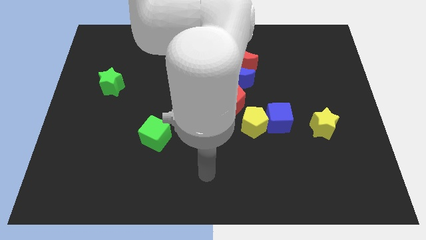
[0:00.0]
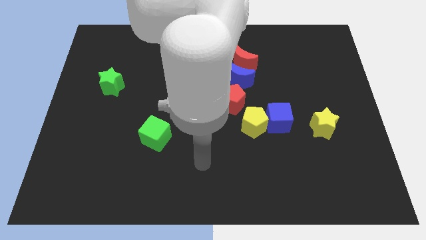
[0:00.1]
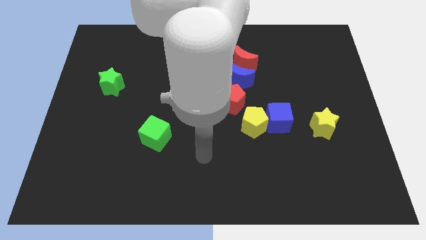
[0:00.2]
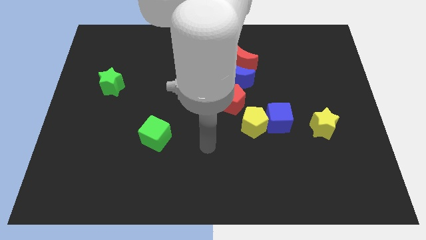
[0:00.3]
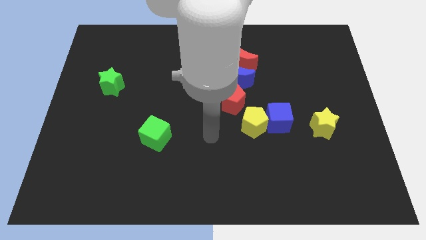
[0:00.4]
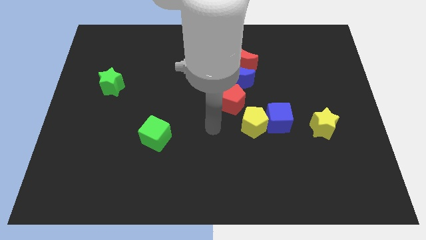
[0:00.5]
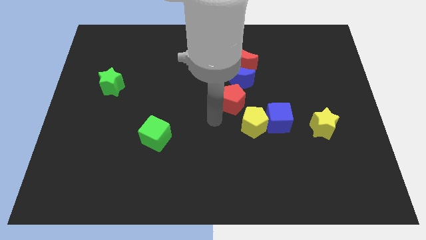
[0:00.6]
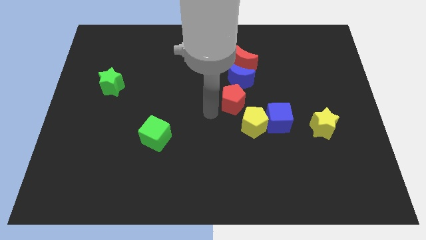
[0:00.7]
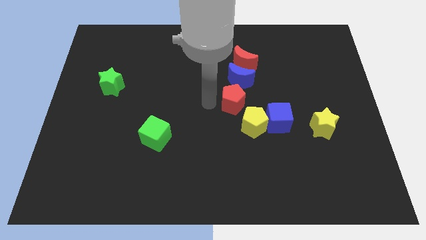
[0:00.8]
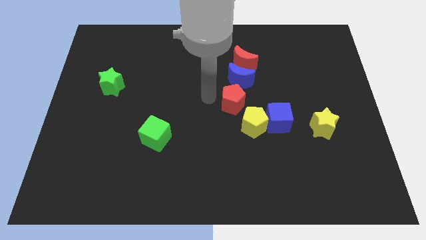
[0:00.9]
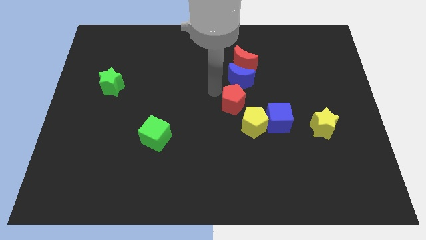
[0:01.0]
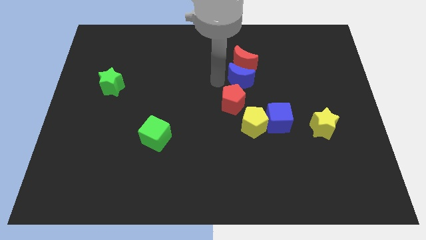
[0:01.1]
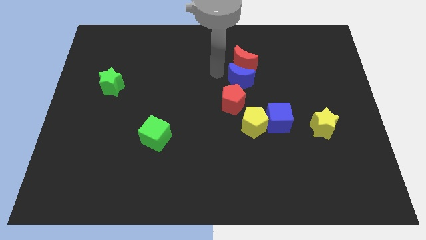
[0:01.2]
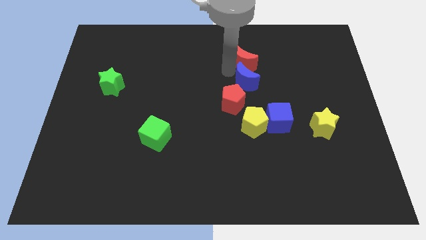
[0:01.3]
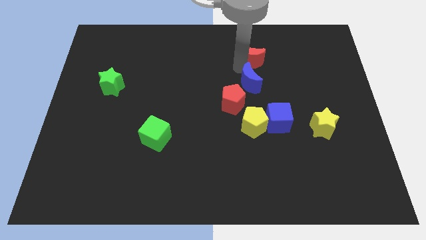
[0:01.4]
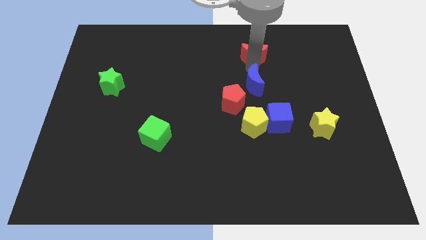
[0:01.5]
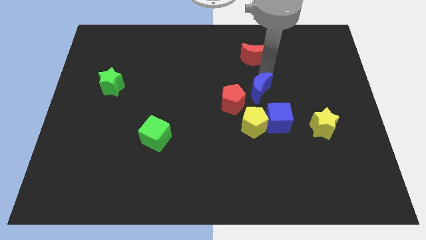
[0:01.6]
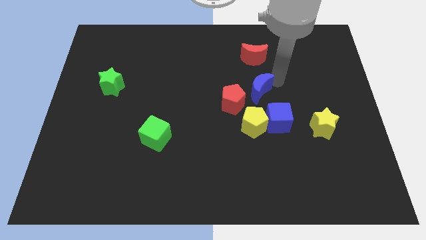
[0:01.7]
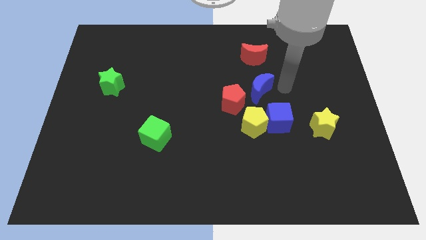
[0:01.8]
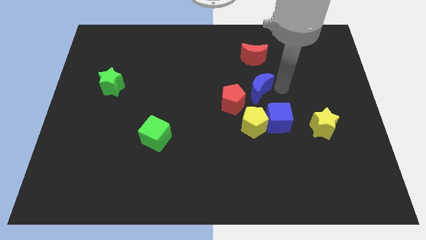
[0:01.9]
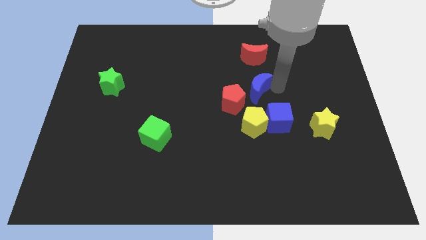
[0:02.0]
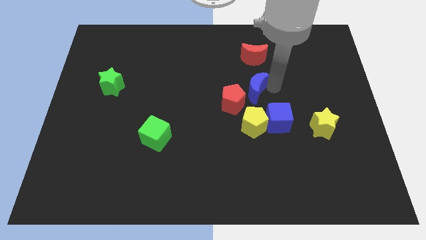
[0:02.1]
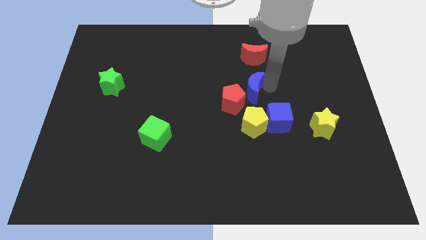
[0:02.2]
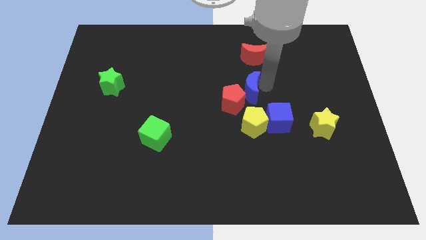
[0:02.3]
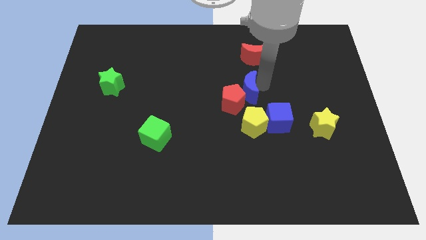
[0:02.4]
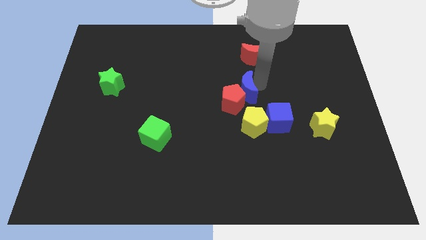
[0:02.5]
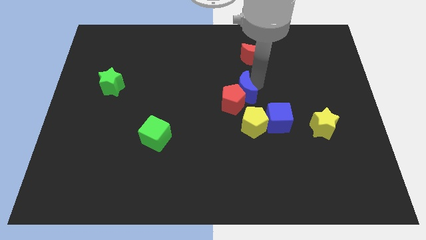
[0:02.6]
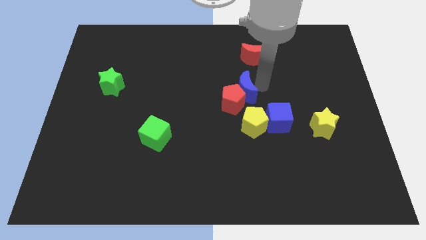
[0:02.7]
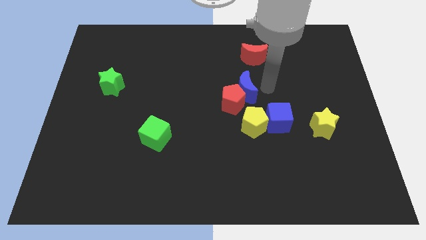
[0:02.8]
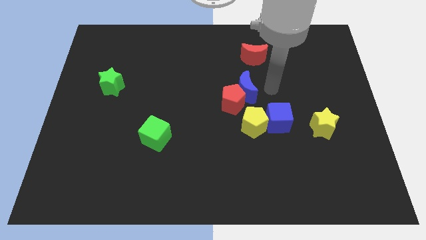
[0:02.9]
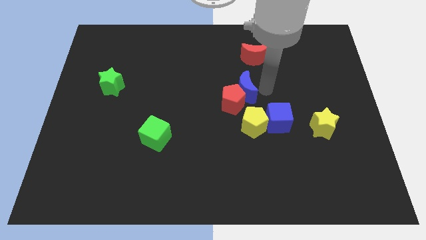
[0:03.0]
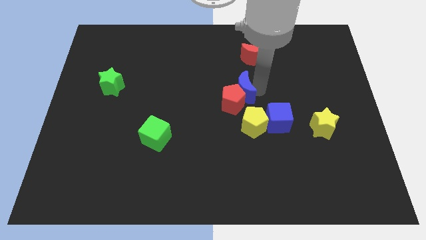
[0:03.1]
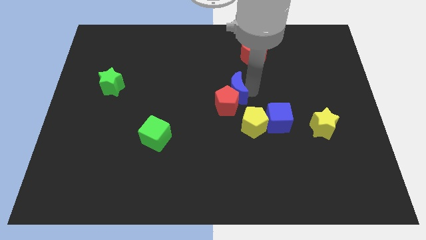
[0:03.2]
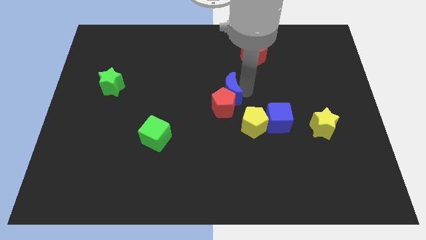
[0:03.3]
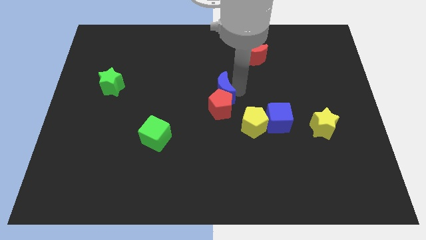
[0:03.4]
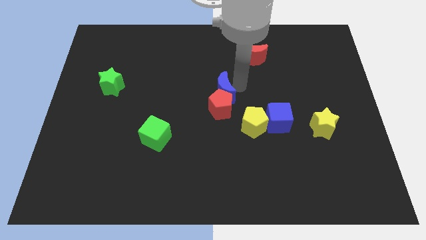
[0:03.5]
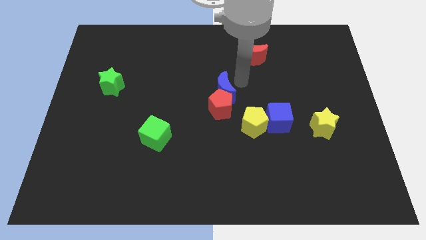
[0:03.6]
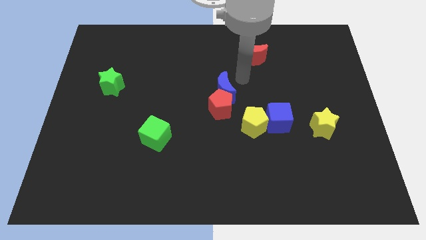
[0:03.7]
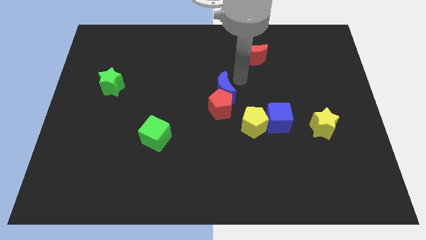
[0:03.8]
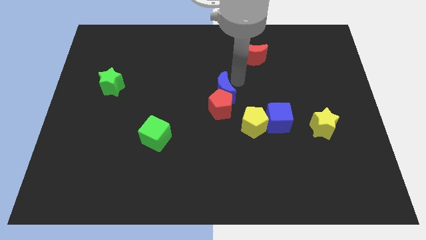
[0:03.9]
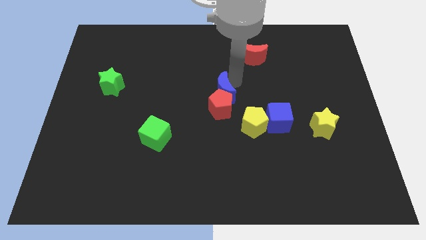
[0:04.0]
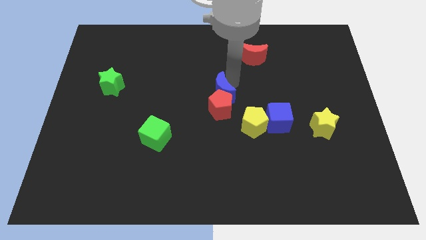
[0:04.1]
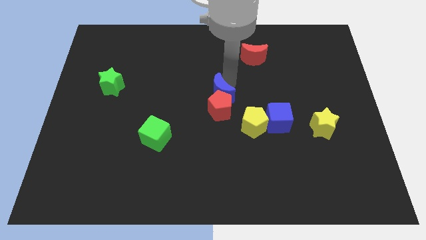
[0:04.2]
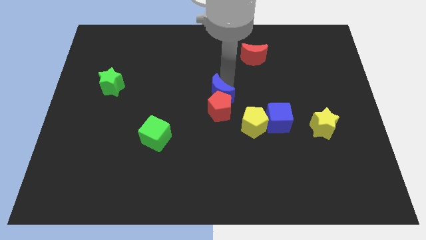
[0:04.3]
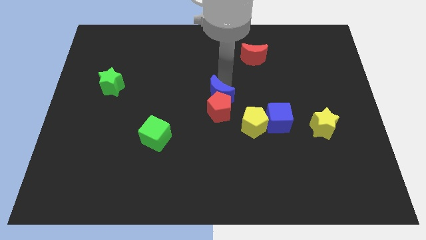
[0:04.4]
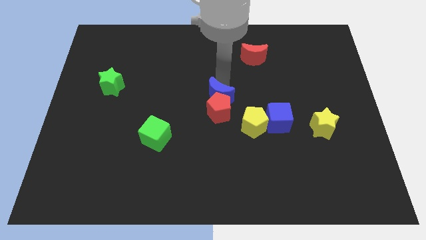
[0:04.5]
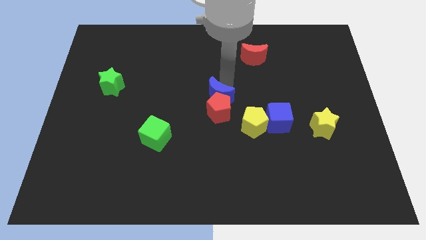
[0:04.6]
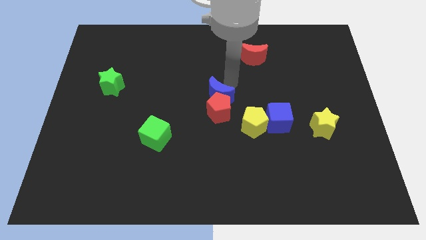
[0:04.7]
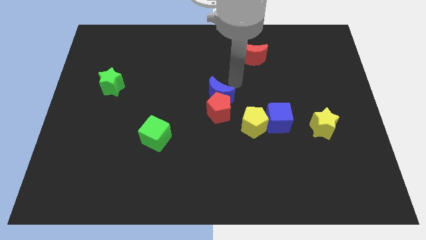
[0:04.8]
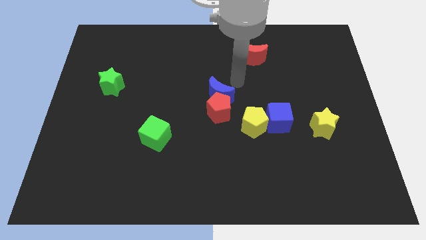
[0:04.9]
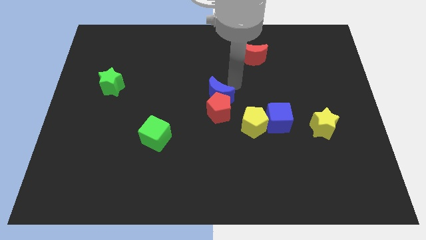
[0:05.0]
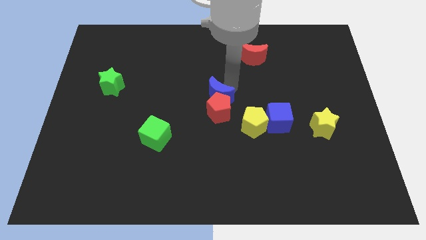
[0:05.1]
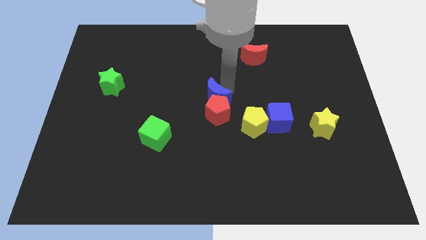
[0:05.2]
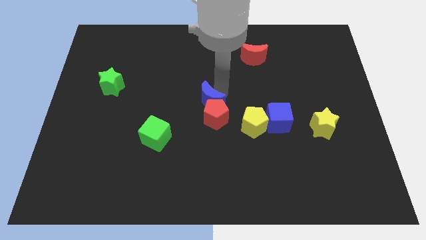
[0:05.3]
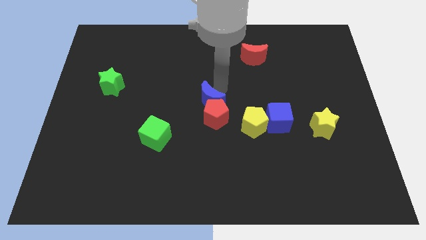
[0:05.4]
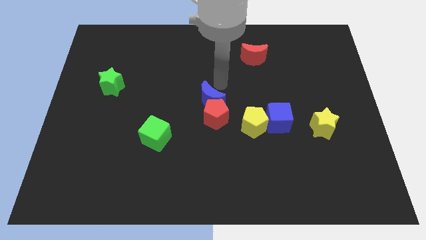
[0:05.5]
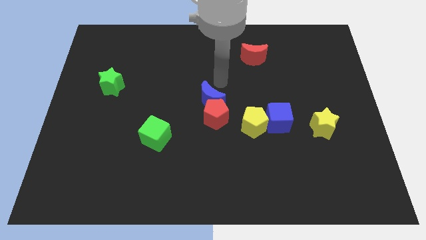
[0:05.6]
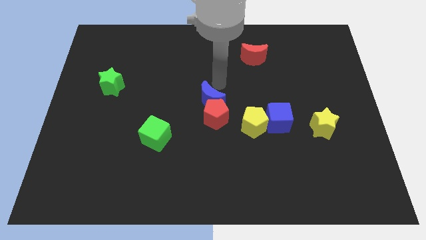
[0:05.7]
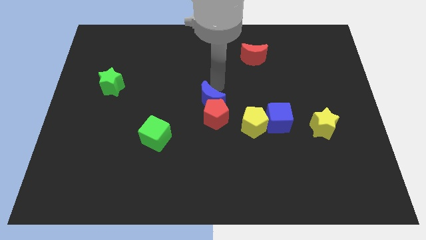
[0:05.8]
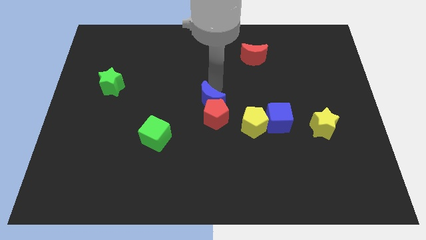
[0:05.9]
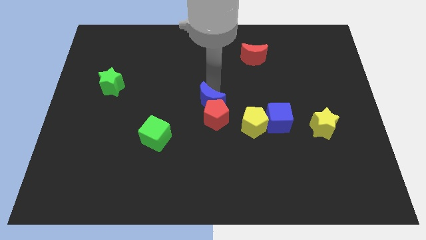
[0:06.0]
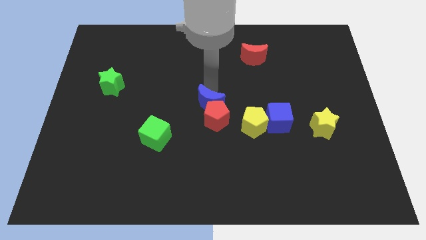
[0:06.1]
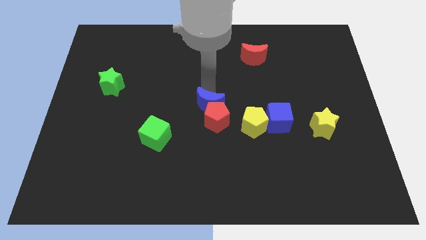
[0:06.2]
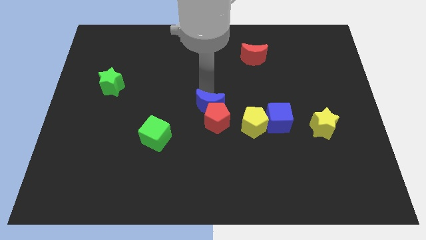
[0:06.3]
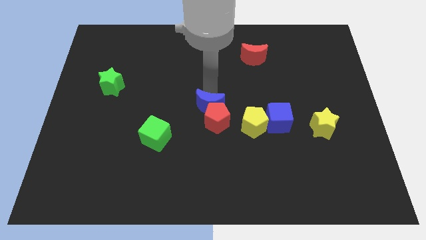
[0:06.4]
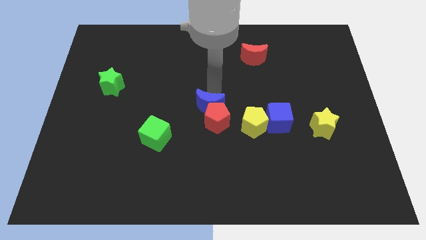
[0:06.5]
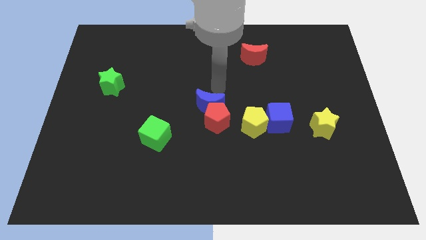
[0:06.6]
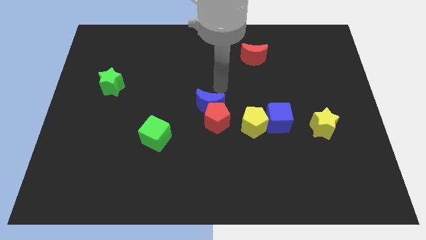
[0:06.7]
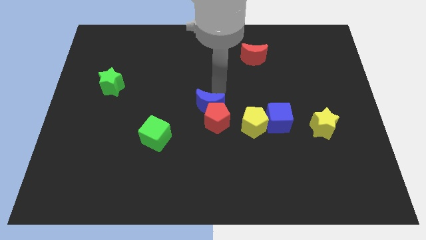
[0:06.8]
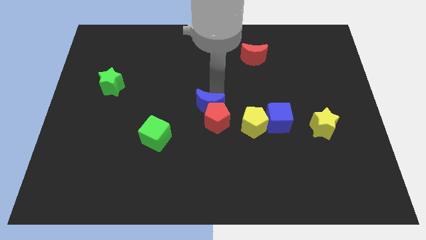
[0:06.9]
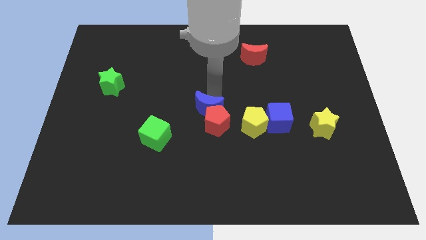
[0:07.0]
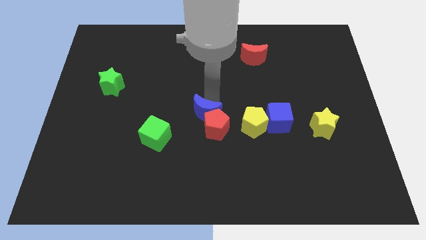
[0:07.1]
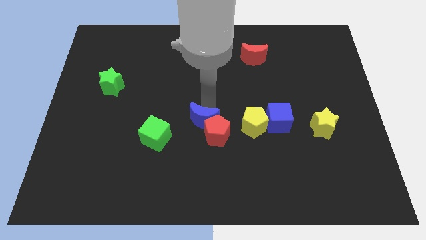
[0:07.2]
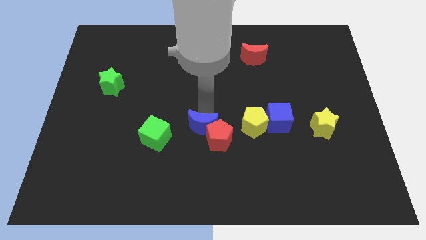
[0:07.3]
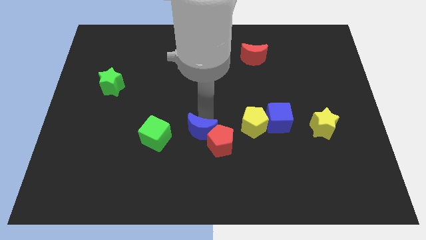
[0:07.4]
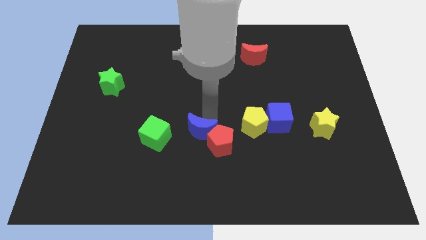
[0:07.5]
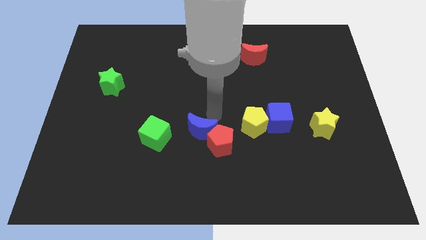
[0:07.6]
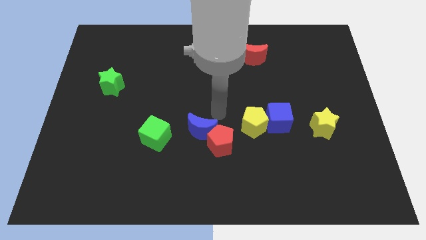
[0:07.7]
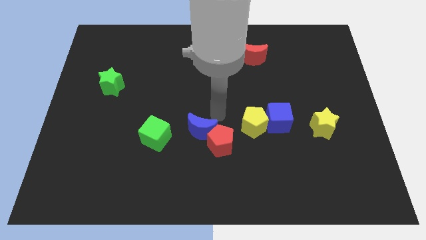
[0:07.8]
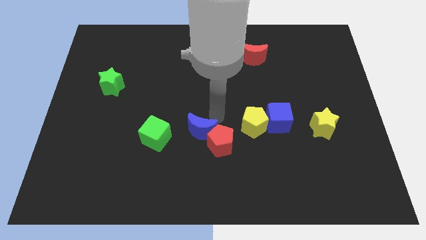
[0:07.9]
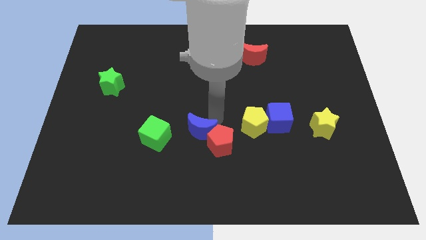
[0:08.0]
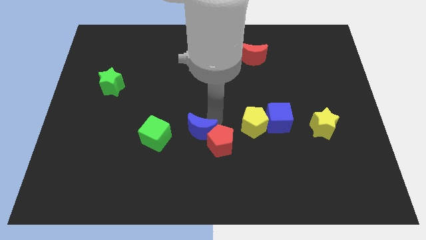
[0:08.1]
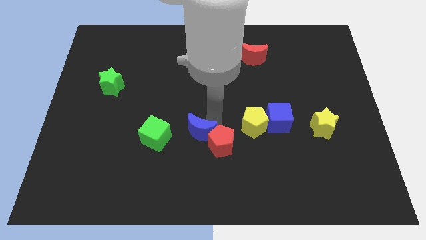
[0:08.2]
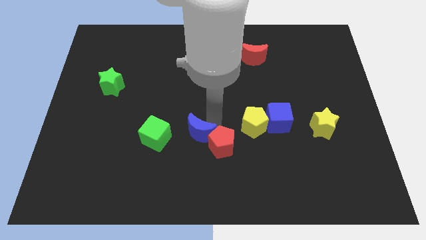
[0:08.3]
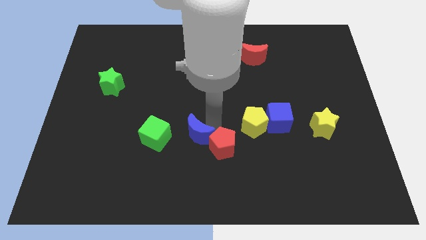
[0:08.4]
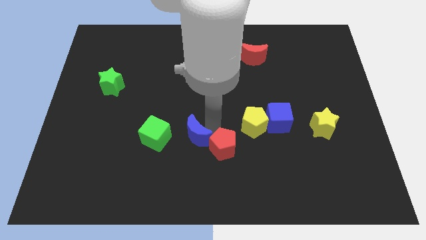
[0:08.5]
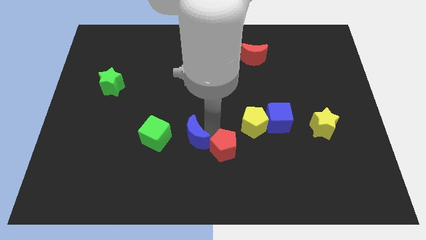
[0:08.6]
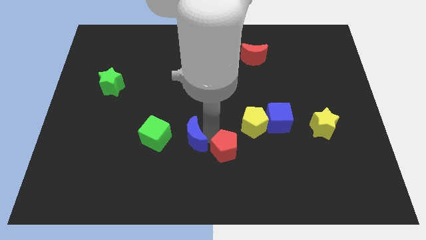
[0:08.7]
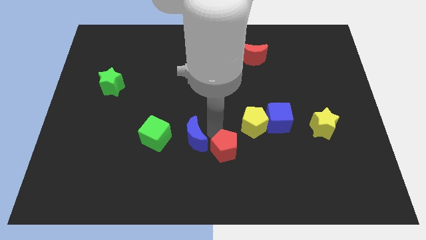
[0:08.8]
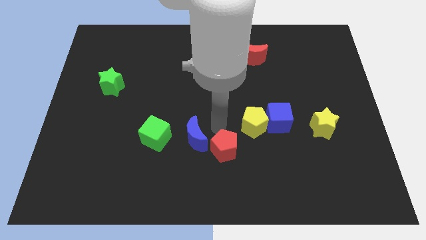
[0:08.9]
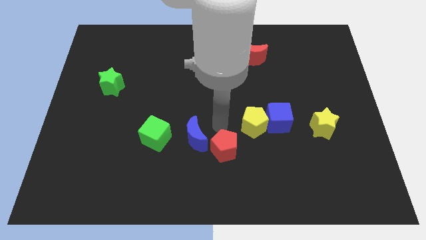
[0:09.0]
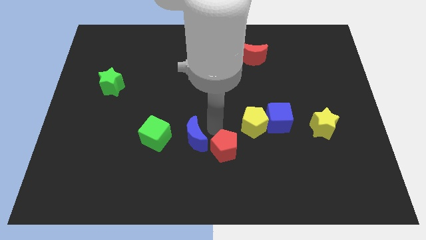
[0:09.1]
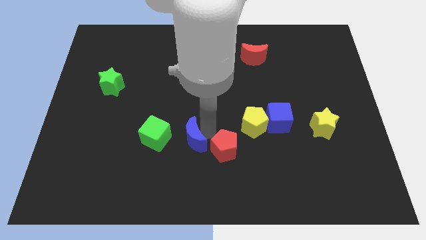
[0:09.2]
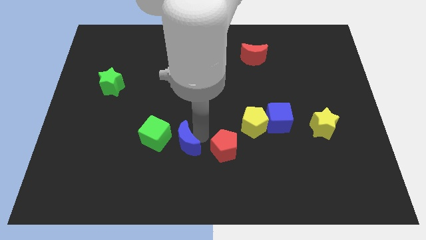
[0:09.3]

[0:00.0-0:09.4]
slide the blue moon down and then to the left
